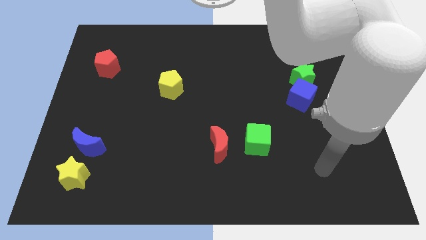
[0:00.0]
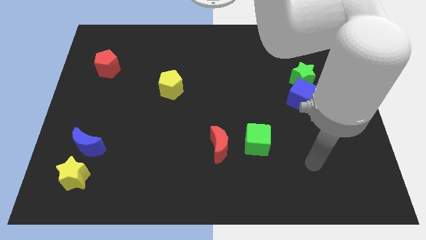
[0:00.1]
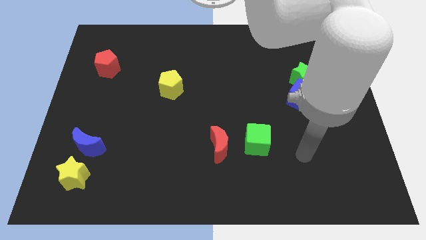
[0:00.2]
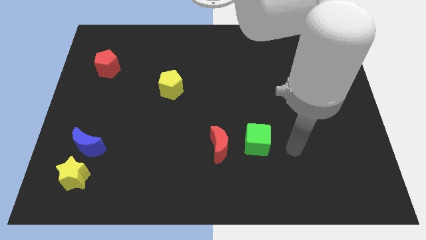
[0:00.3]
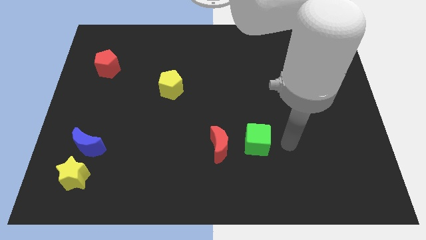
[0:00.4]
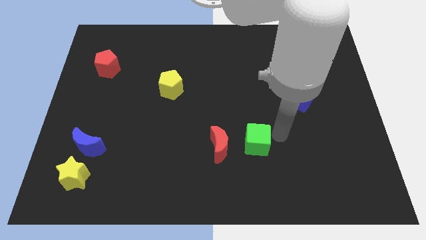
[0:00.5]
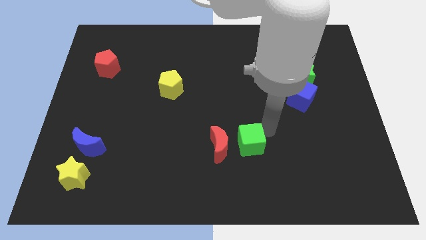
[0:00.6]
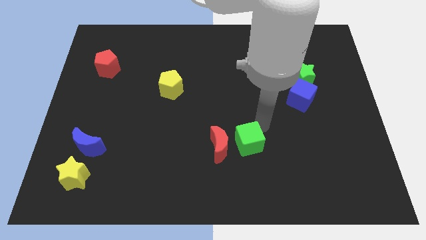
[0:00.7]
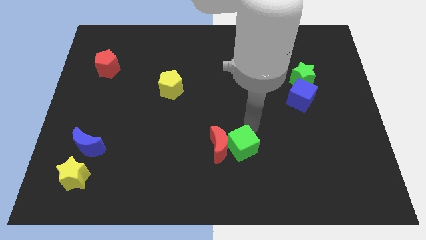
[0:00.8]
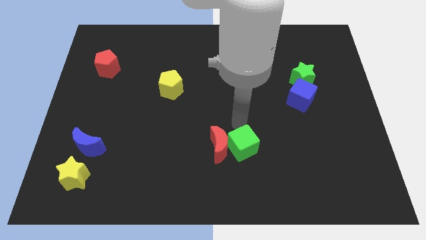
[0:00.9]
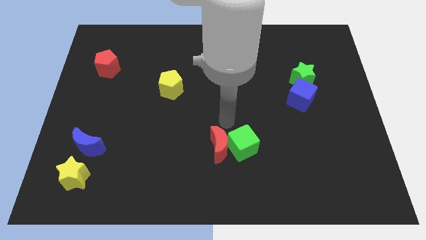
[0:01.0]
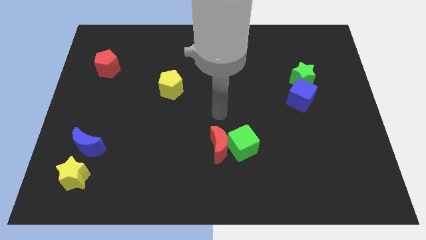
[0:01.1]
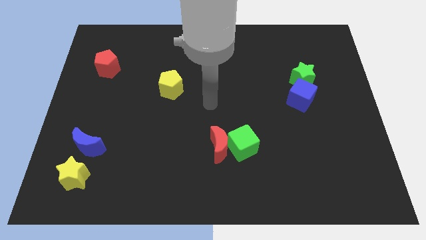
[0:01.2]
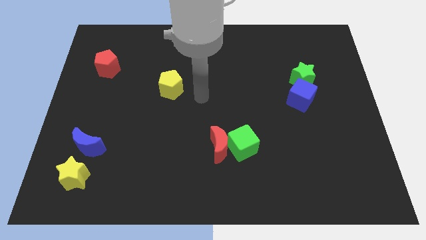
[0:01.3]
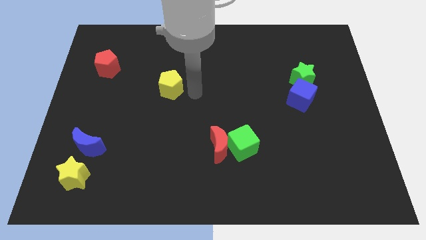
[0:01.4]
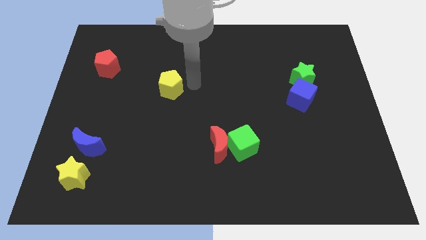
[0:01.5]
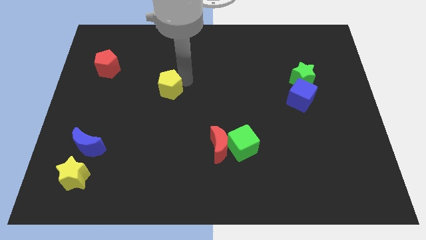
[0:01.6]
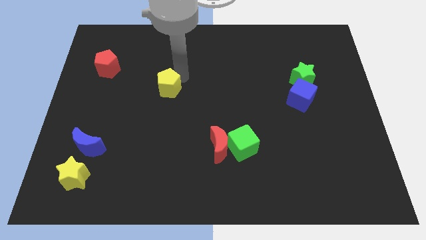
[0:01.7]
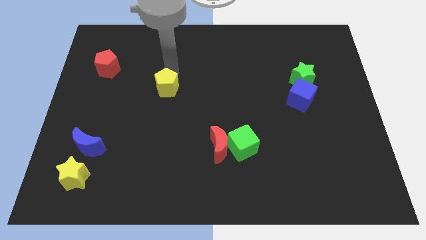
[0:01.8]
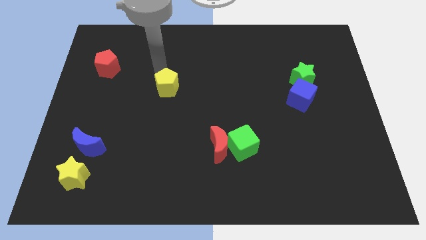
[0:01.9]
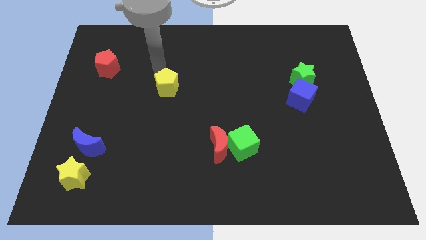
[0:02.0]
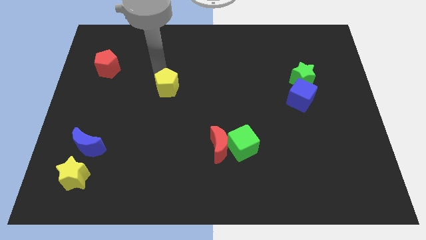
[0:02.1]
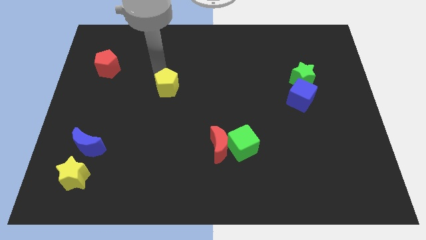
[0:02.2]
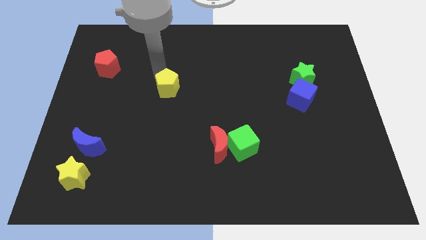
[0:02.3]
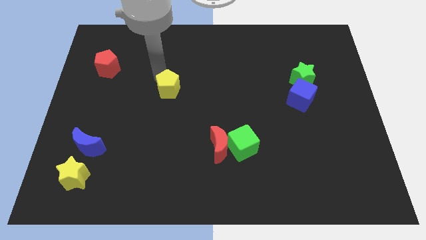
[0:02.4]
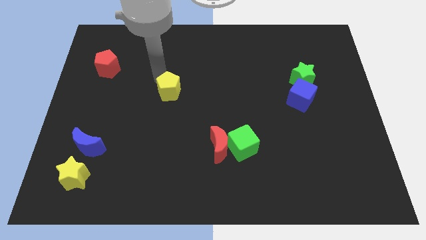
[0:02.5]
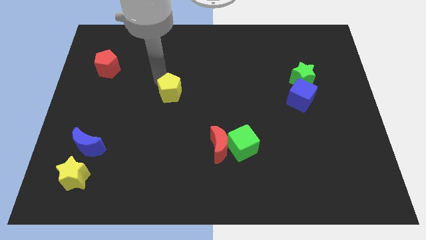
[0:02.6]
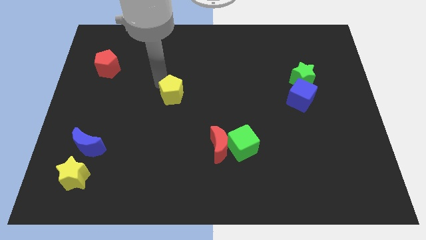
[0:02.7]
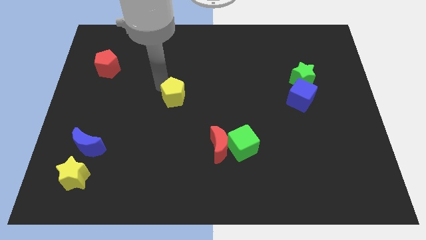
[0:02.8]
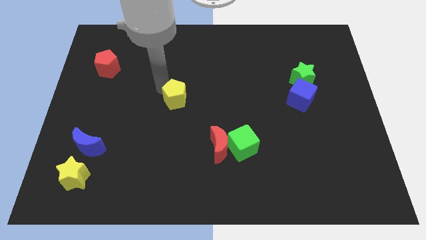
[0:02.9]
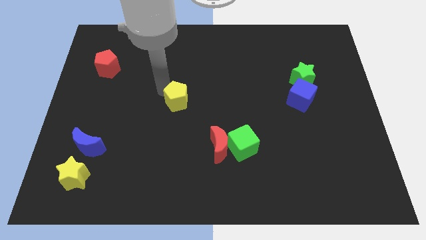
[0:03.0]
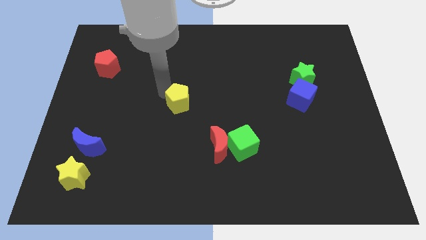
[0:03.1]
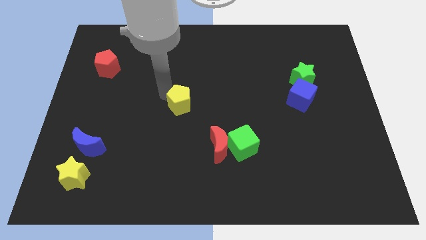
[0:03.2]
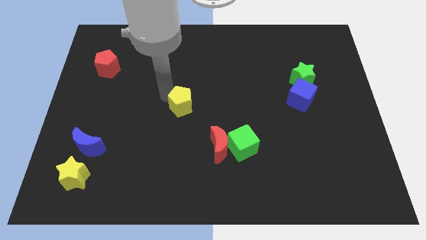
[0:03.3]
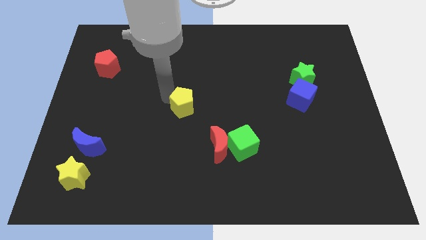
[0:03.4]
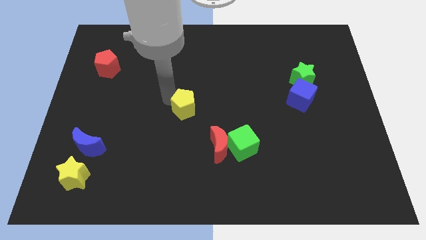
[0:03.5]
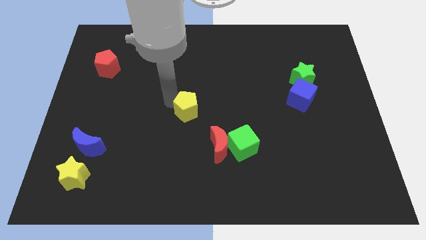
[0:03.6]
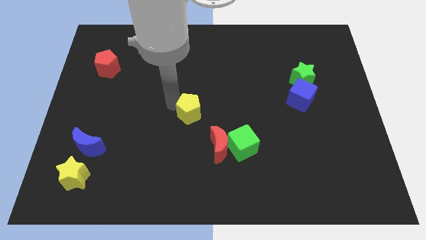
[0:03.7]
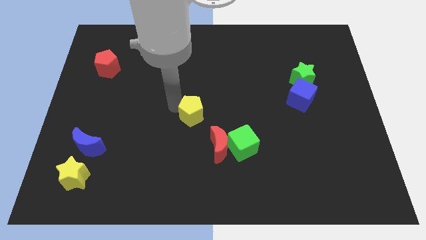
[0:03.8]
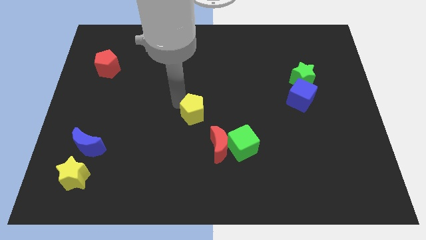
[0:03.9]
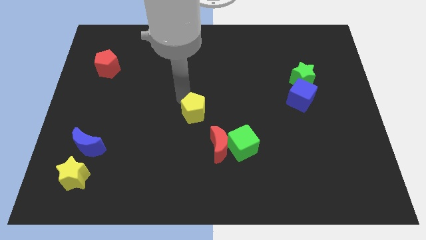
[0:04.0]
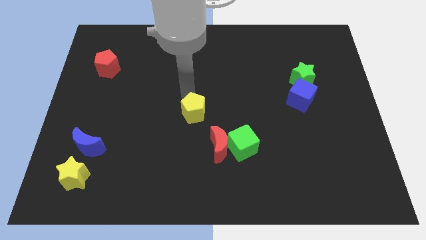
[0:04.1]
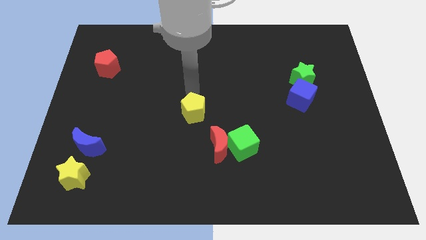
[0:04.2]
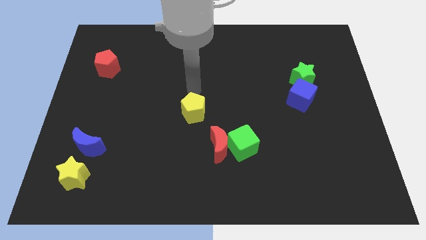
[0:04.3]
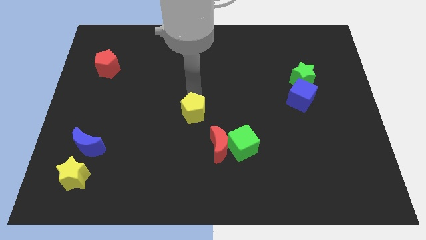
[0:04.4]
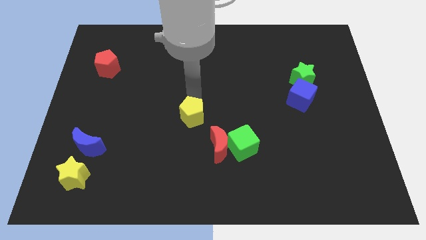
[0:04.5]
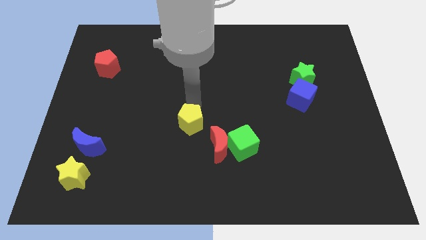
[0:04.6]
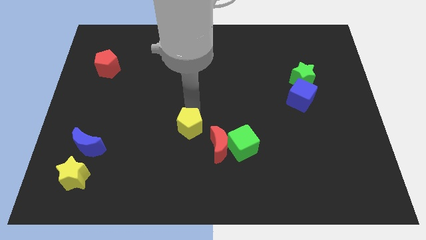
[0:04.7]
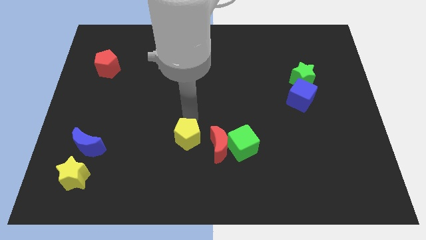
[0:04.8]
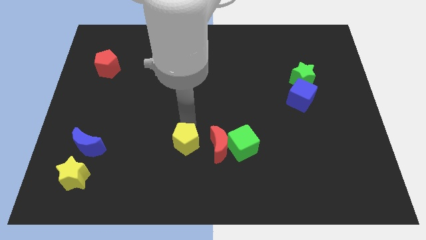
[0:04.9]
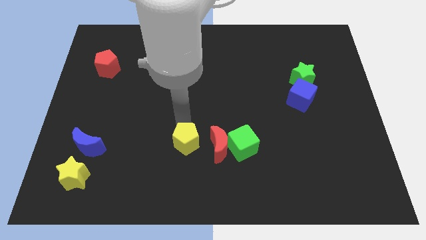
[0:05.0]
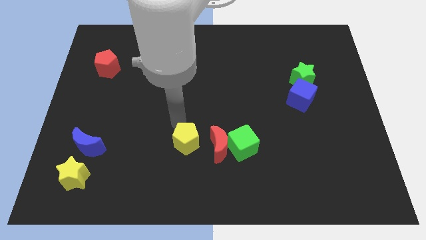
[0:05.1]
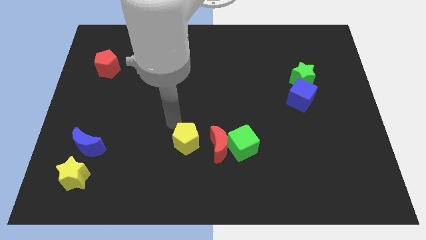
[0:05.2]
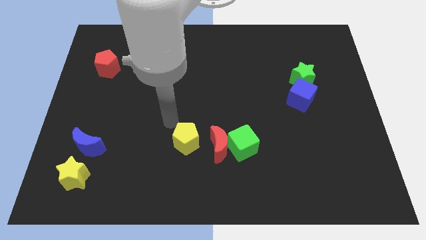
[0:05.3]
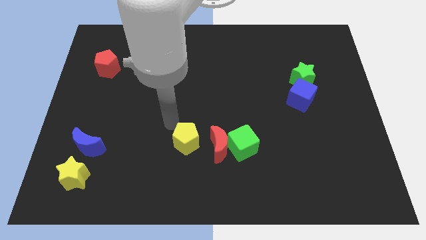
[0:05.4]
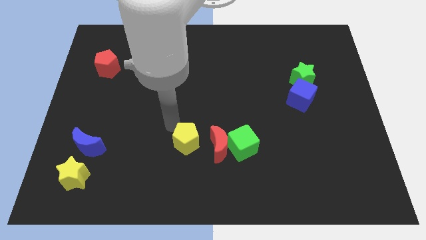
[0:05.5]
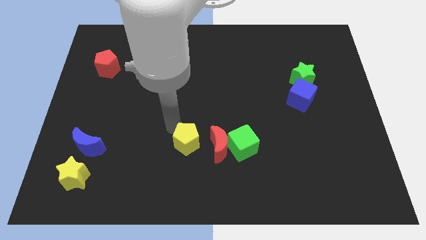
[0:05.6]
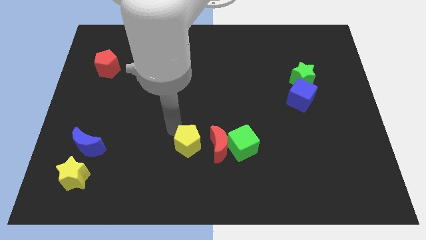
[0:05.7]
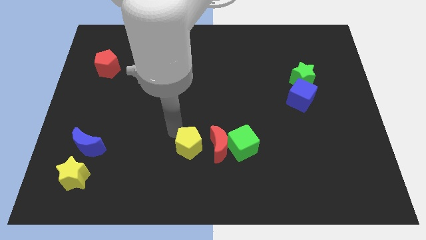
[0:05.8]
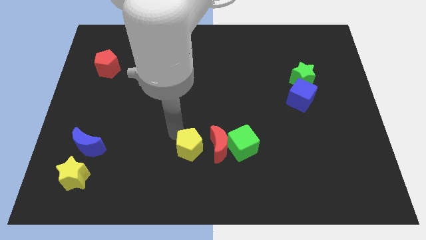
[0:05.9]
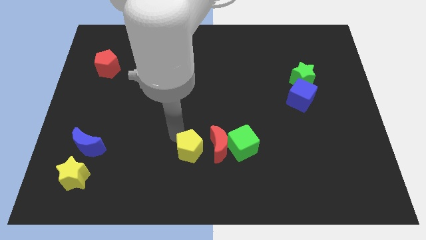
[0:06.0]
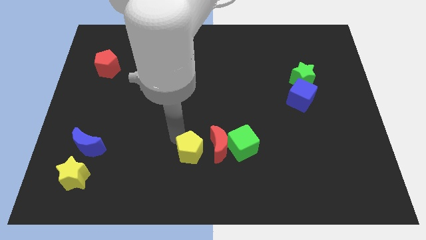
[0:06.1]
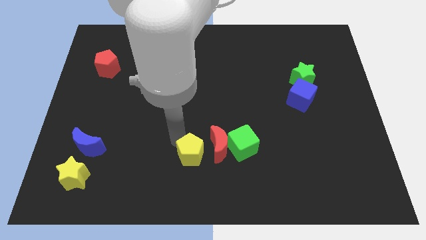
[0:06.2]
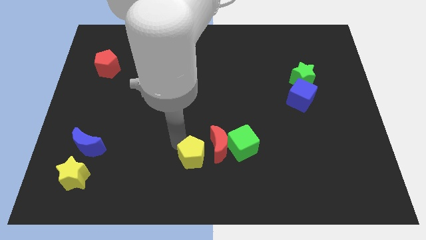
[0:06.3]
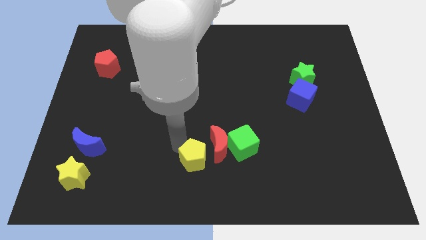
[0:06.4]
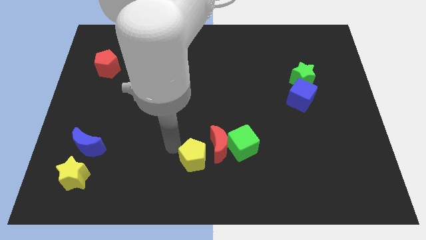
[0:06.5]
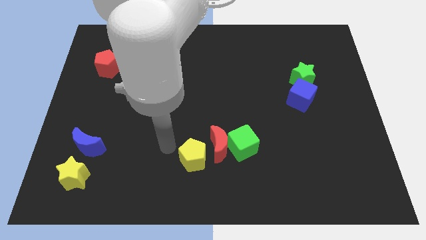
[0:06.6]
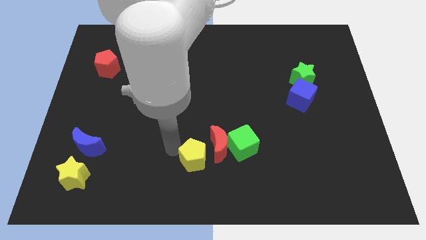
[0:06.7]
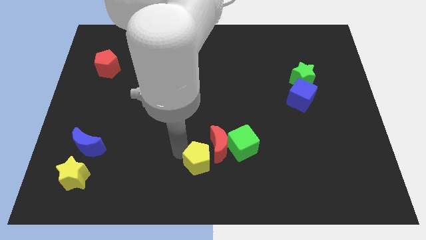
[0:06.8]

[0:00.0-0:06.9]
put the yellow pentagon to the bottom left side of the green cube
